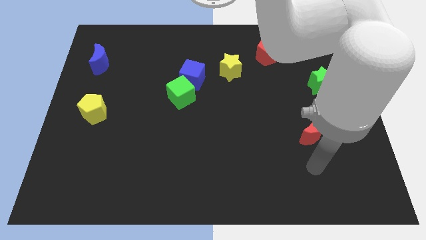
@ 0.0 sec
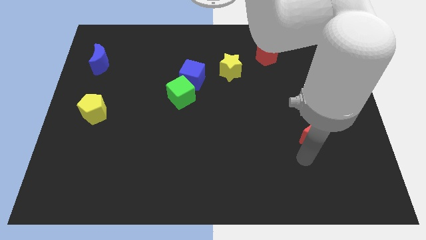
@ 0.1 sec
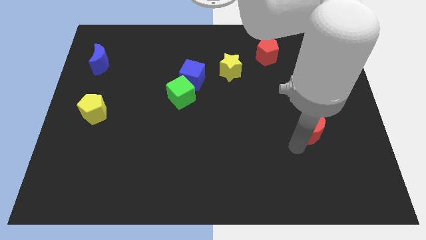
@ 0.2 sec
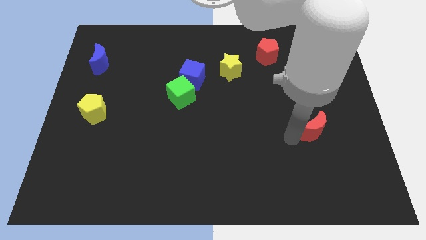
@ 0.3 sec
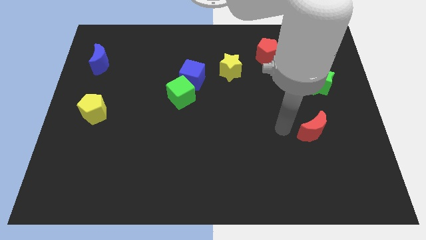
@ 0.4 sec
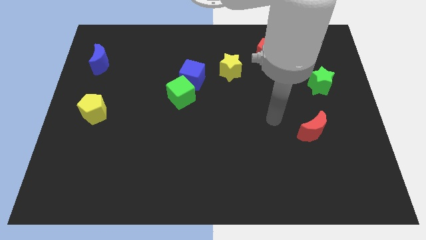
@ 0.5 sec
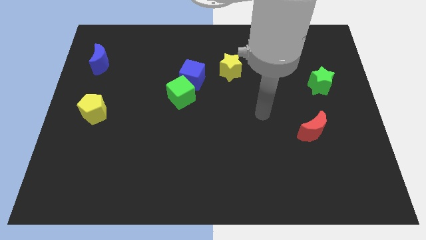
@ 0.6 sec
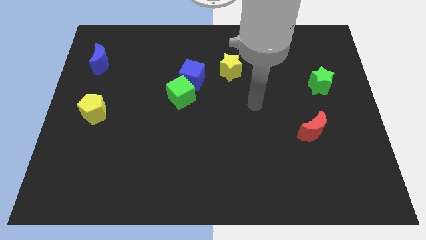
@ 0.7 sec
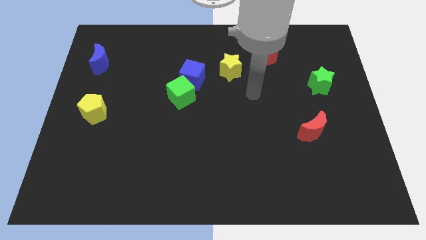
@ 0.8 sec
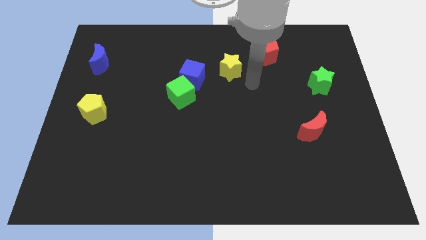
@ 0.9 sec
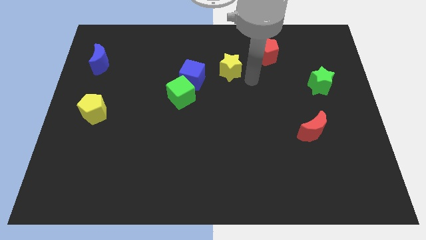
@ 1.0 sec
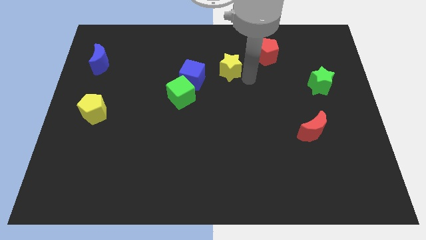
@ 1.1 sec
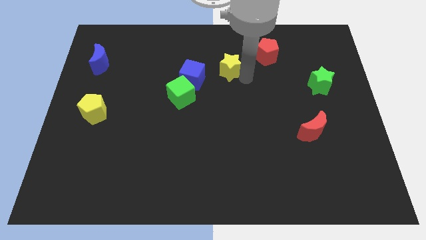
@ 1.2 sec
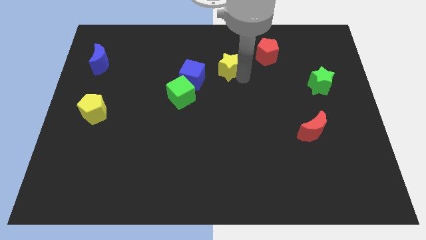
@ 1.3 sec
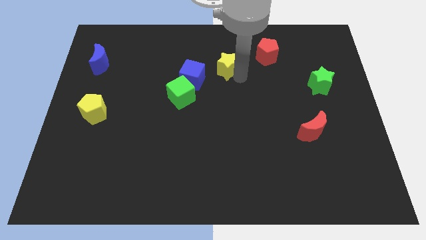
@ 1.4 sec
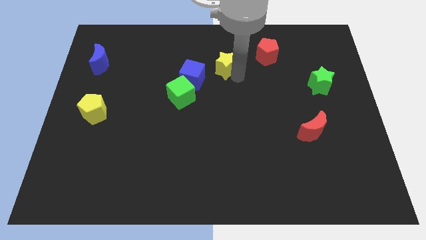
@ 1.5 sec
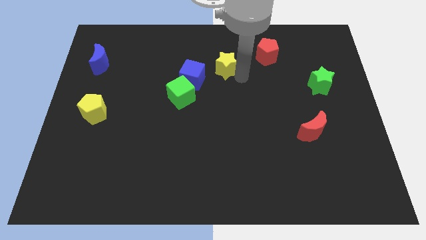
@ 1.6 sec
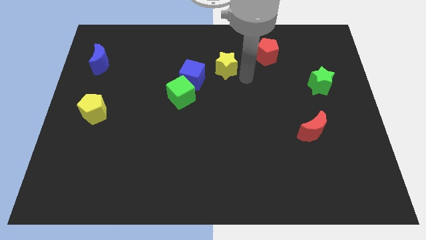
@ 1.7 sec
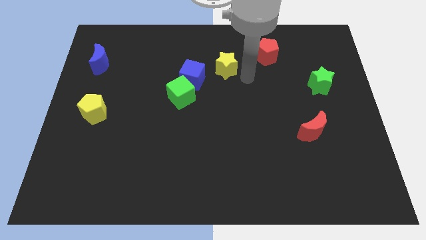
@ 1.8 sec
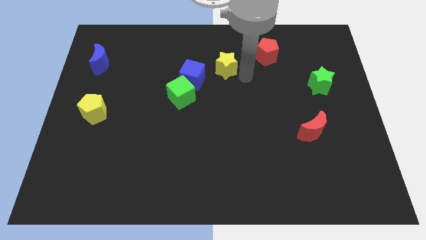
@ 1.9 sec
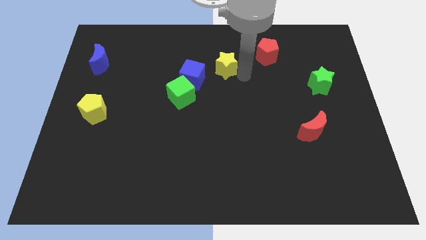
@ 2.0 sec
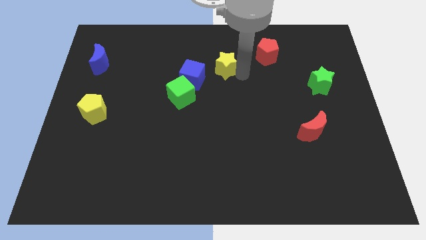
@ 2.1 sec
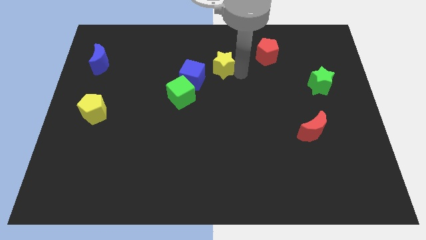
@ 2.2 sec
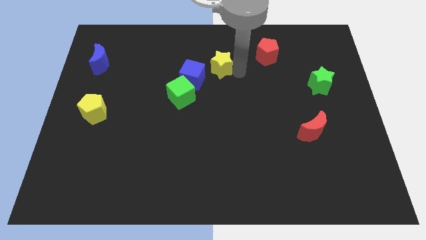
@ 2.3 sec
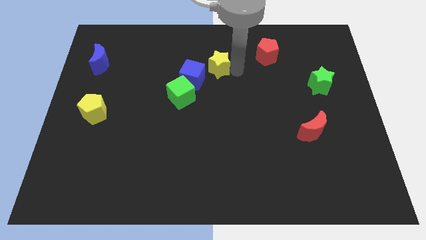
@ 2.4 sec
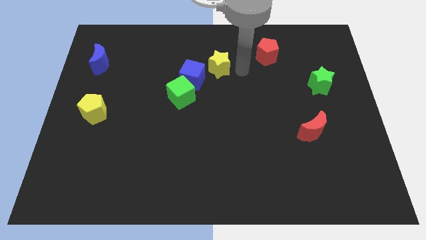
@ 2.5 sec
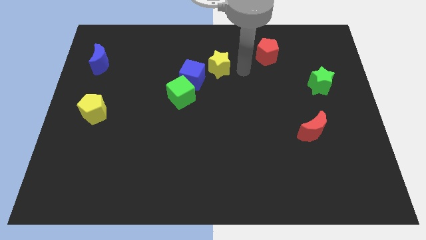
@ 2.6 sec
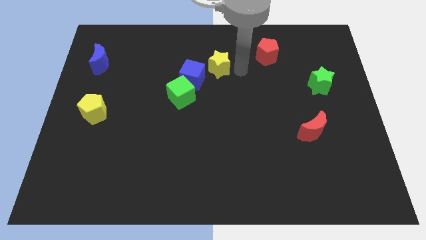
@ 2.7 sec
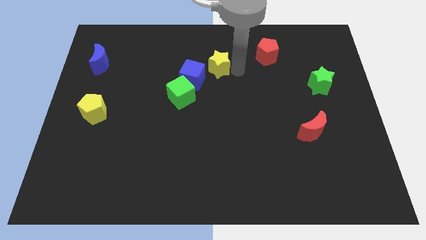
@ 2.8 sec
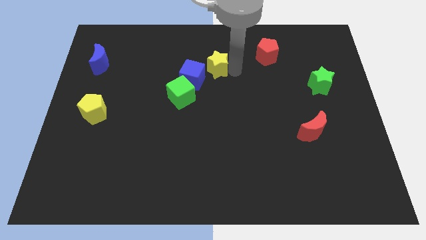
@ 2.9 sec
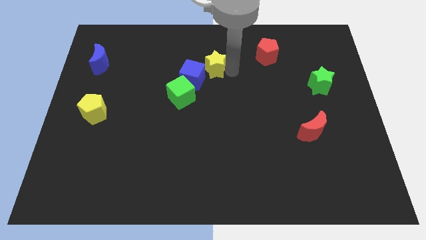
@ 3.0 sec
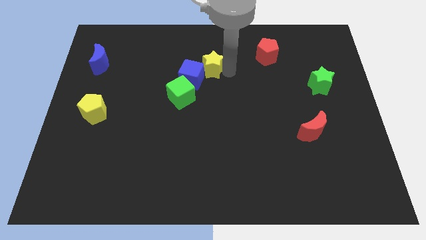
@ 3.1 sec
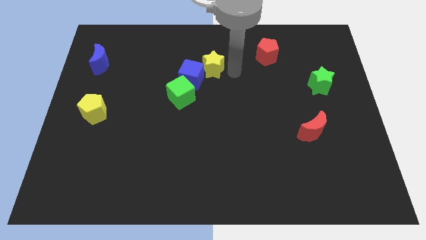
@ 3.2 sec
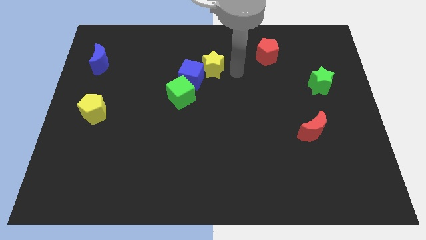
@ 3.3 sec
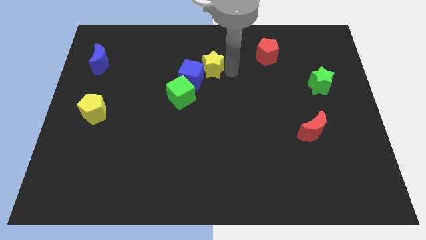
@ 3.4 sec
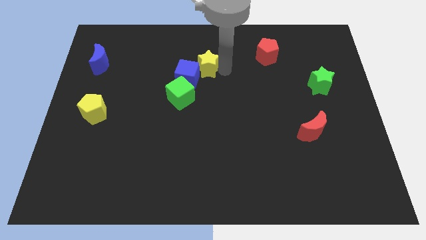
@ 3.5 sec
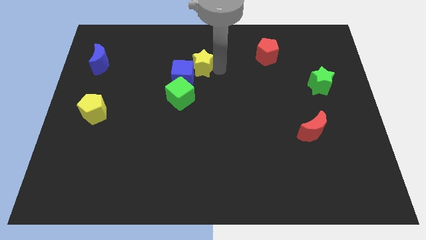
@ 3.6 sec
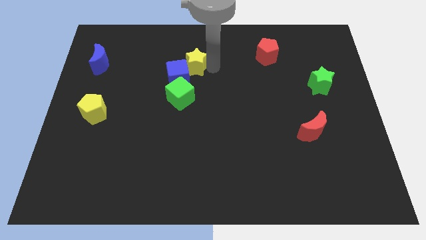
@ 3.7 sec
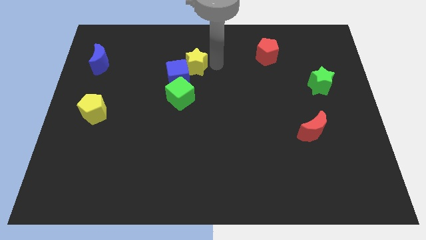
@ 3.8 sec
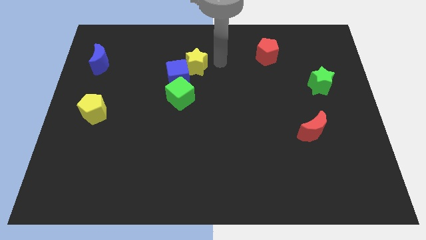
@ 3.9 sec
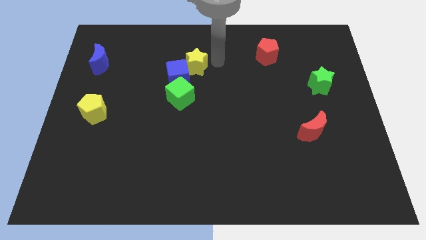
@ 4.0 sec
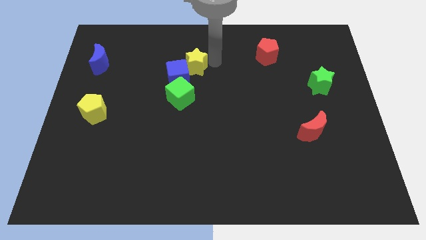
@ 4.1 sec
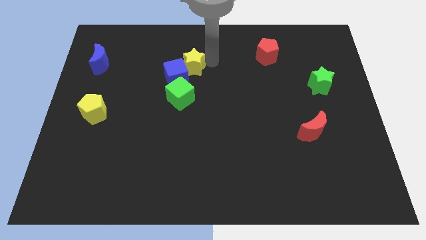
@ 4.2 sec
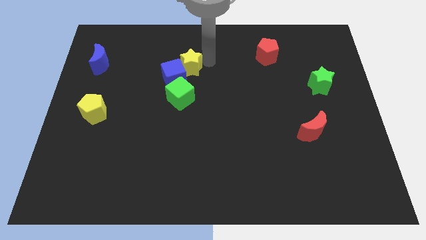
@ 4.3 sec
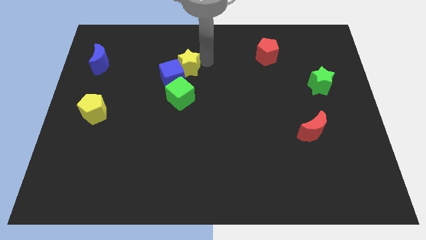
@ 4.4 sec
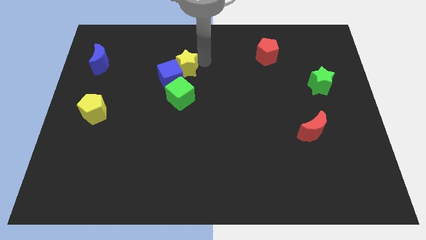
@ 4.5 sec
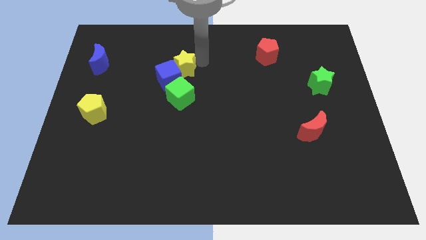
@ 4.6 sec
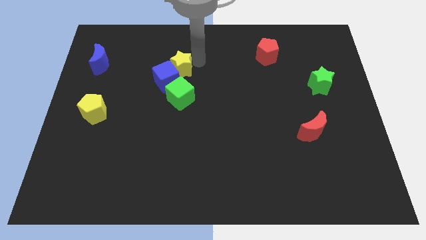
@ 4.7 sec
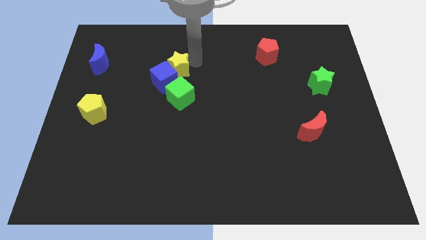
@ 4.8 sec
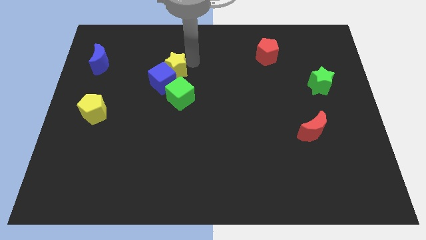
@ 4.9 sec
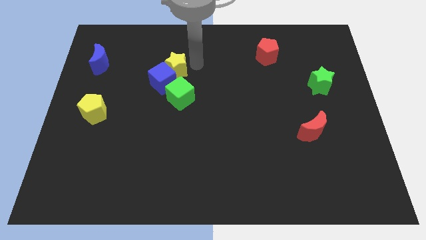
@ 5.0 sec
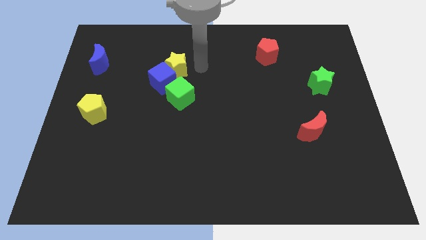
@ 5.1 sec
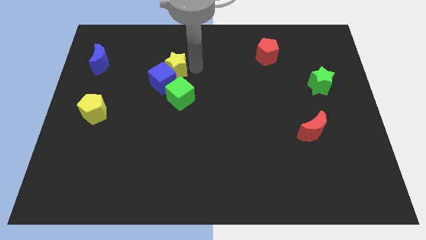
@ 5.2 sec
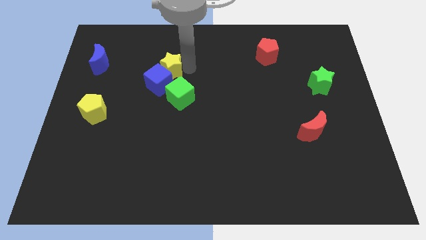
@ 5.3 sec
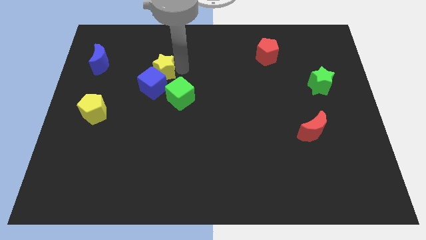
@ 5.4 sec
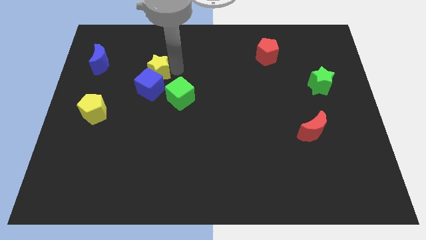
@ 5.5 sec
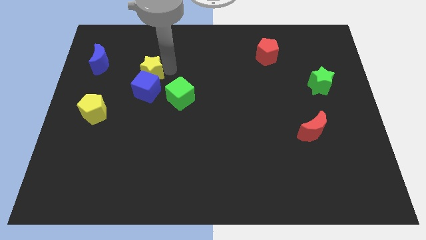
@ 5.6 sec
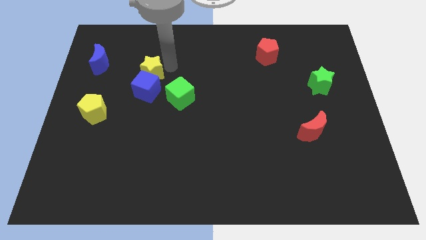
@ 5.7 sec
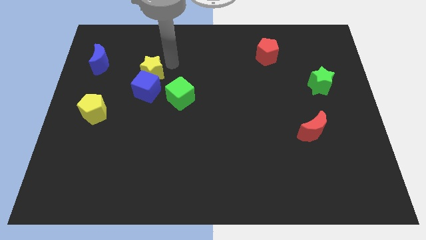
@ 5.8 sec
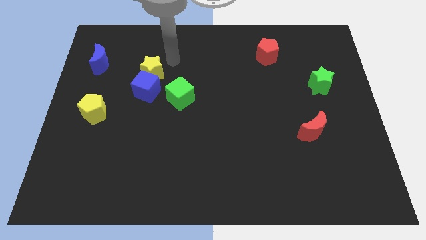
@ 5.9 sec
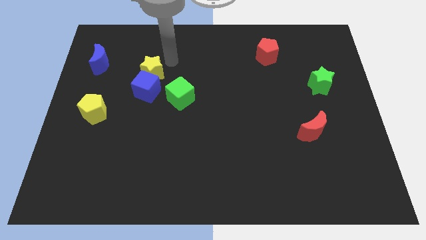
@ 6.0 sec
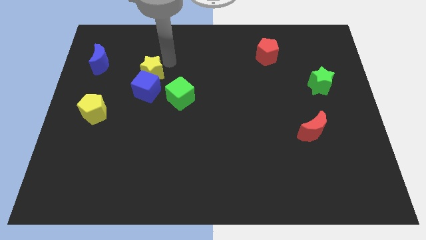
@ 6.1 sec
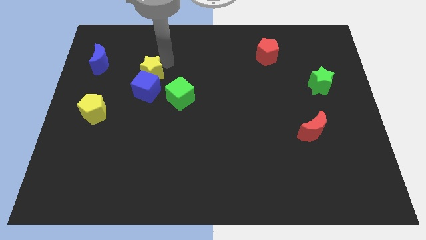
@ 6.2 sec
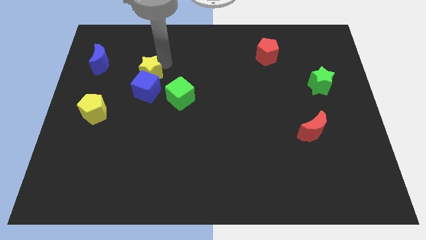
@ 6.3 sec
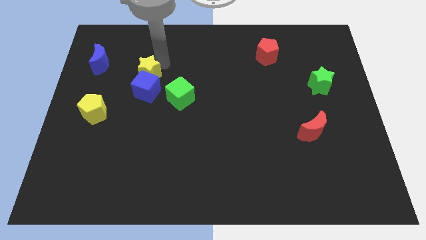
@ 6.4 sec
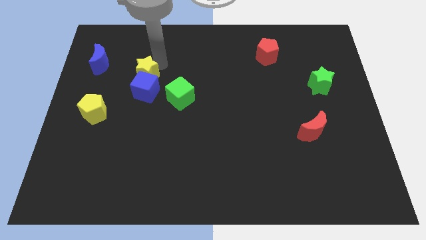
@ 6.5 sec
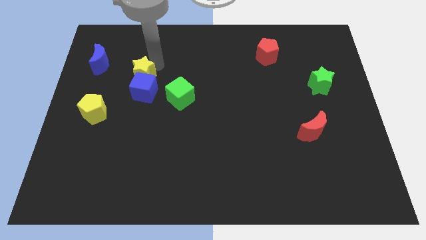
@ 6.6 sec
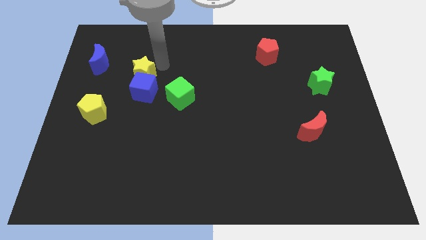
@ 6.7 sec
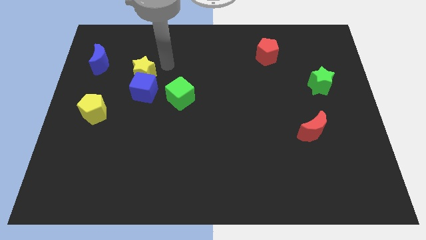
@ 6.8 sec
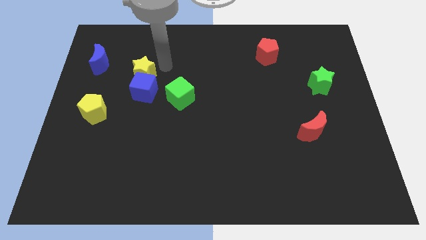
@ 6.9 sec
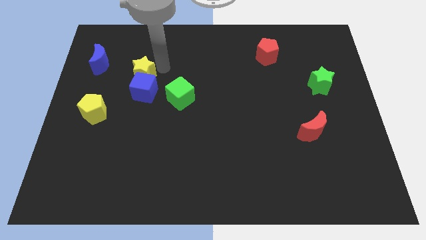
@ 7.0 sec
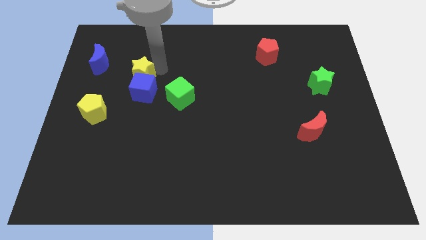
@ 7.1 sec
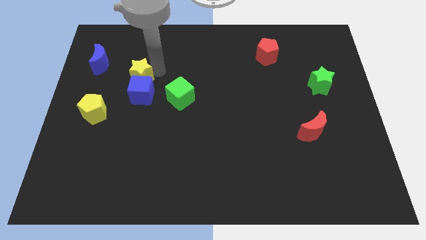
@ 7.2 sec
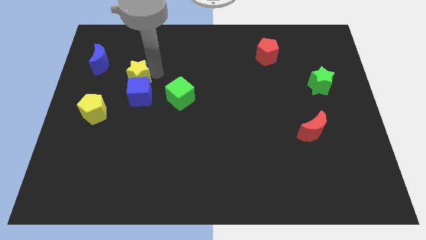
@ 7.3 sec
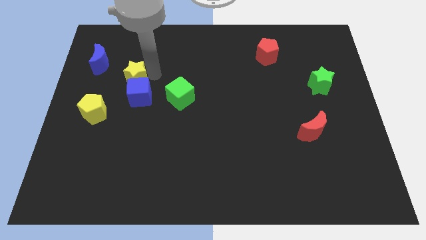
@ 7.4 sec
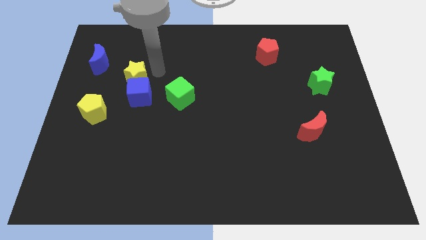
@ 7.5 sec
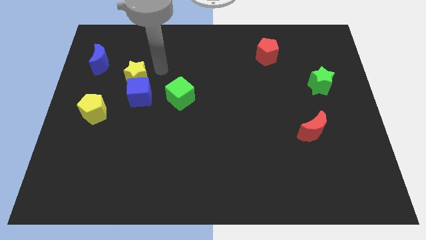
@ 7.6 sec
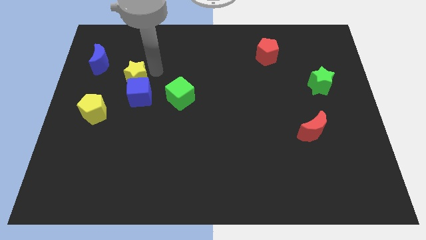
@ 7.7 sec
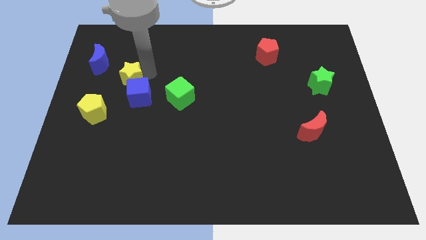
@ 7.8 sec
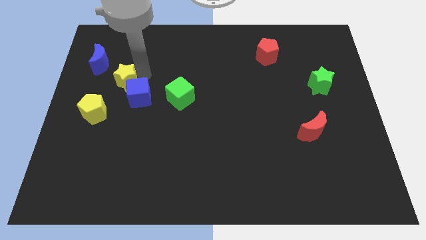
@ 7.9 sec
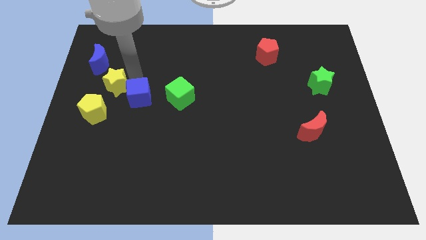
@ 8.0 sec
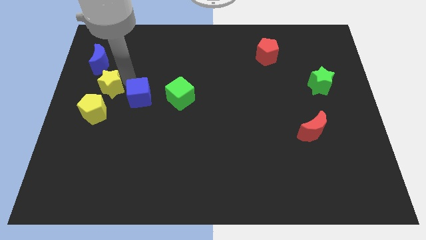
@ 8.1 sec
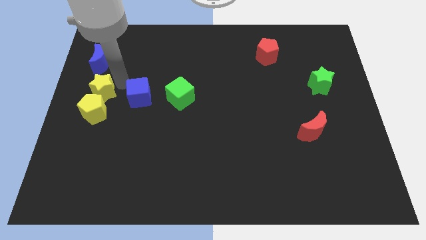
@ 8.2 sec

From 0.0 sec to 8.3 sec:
slide the yellow star to the left side of the board
